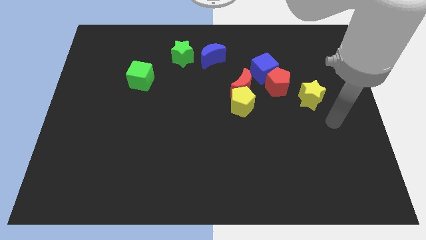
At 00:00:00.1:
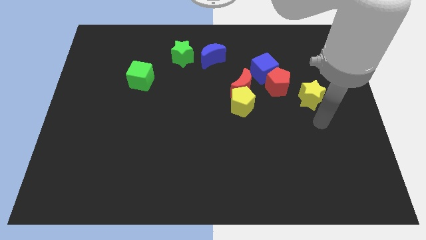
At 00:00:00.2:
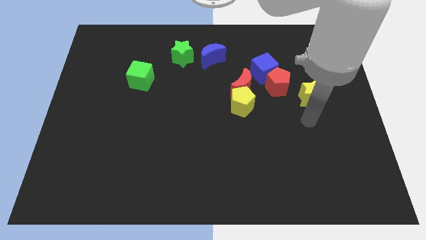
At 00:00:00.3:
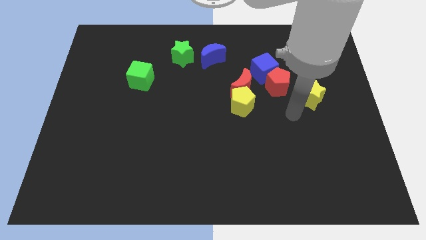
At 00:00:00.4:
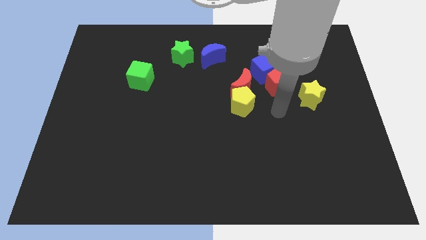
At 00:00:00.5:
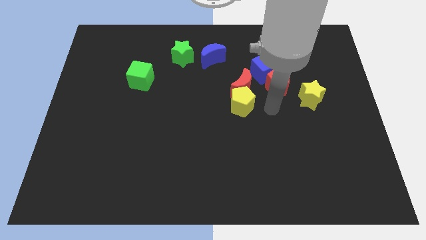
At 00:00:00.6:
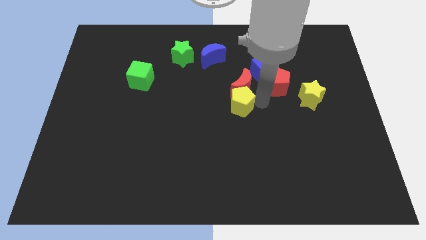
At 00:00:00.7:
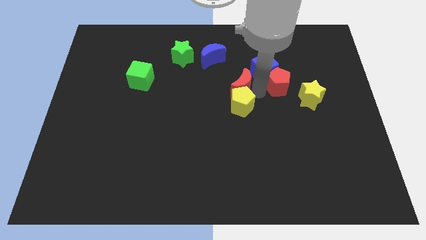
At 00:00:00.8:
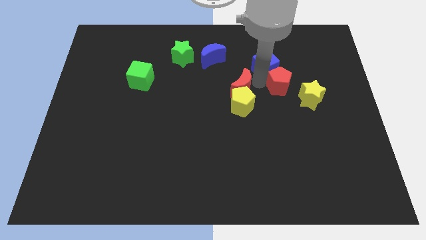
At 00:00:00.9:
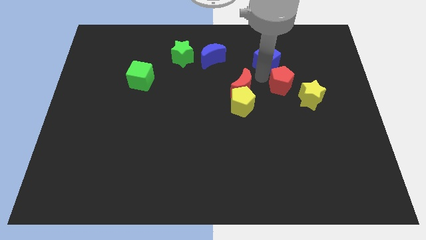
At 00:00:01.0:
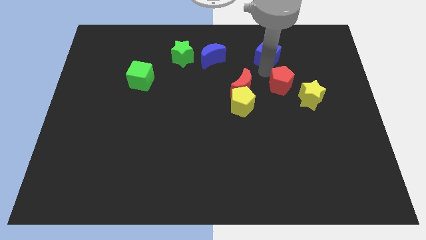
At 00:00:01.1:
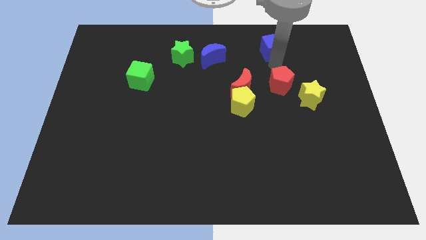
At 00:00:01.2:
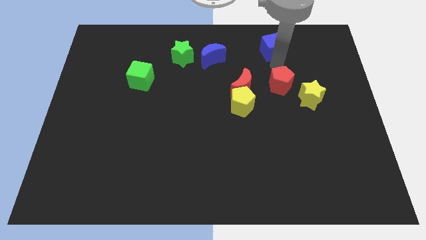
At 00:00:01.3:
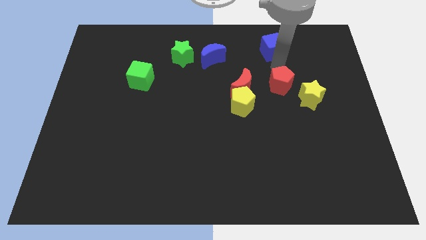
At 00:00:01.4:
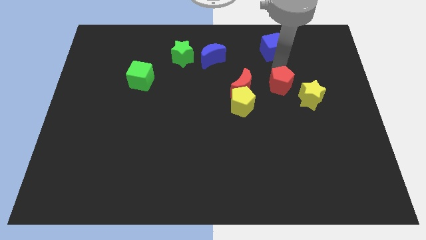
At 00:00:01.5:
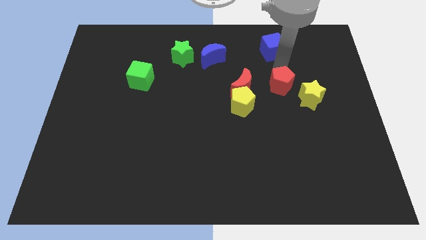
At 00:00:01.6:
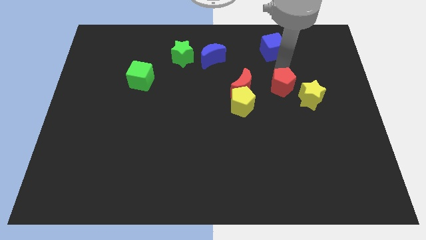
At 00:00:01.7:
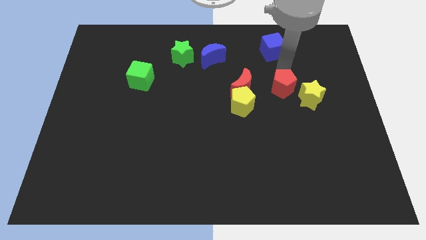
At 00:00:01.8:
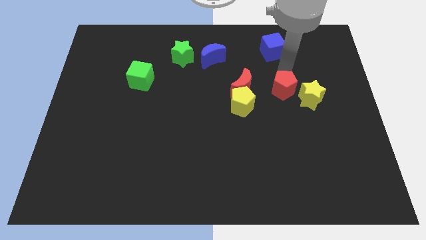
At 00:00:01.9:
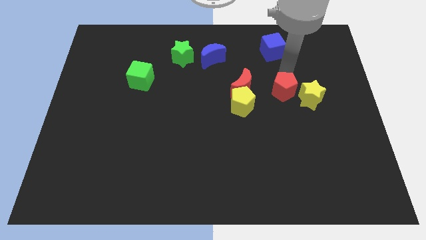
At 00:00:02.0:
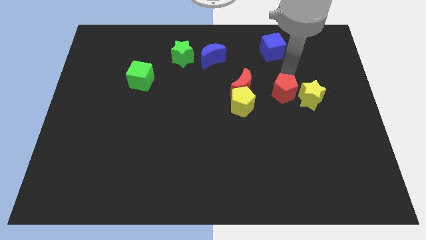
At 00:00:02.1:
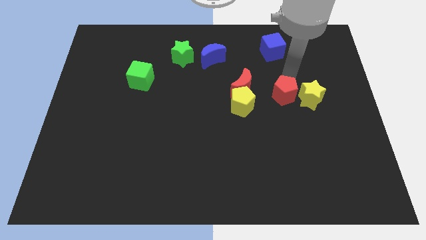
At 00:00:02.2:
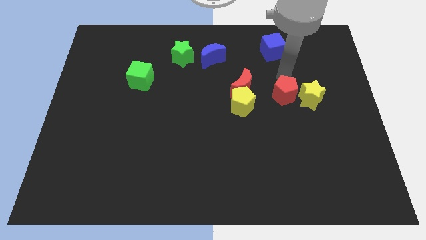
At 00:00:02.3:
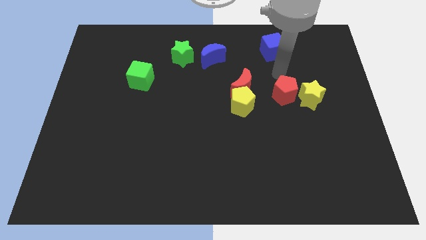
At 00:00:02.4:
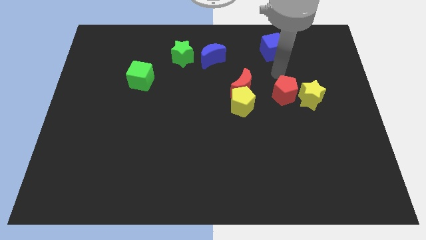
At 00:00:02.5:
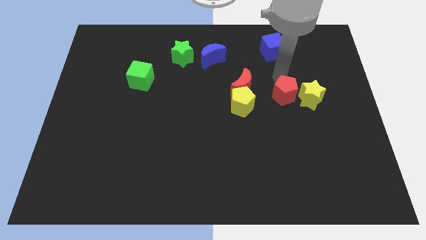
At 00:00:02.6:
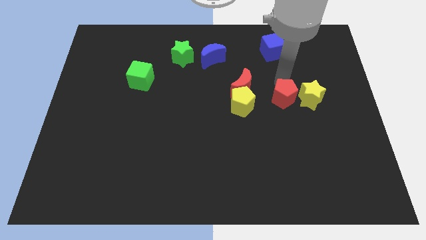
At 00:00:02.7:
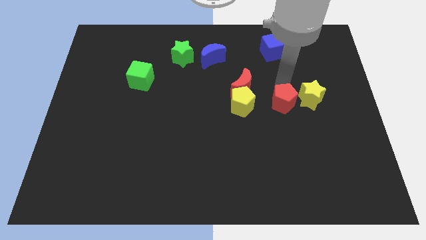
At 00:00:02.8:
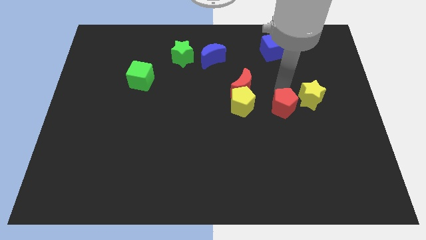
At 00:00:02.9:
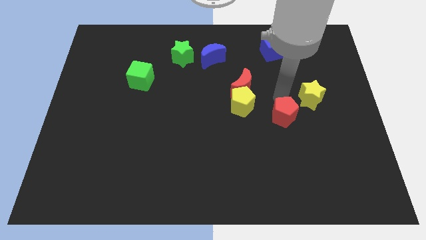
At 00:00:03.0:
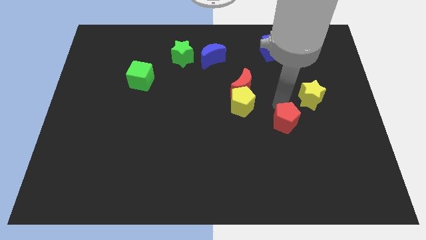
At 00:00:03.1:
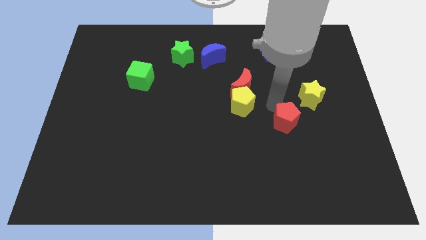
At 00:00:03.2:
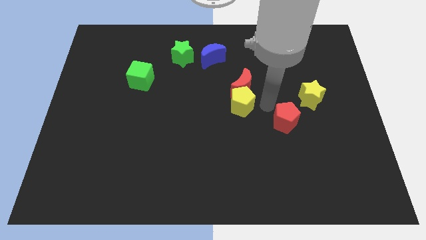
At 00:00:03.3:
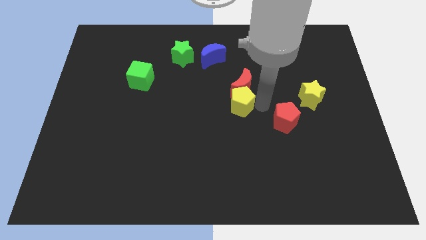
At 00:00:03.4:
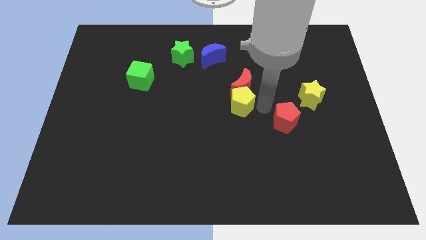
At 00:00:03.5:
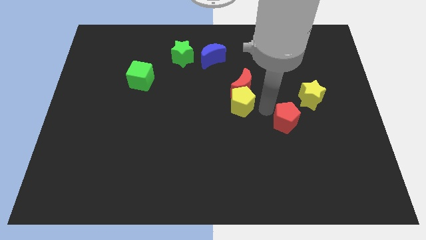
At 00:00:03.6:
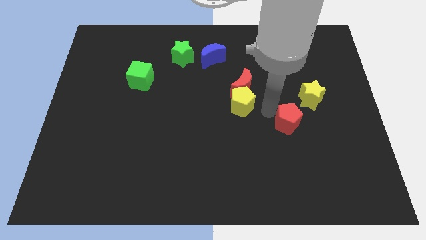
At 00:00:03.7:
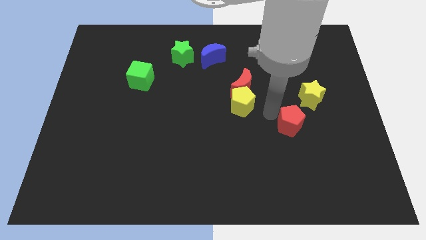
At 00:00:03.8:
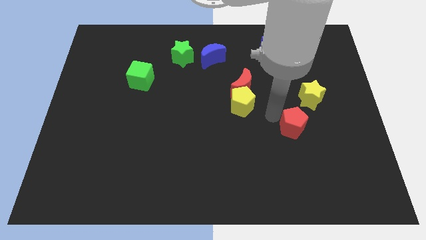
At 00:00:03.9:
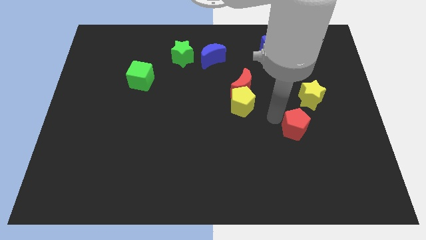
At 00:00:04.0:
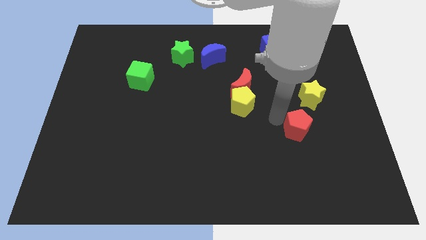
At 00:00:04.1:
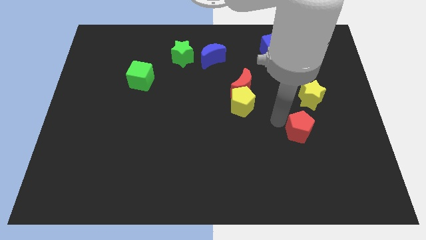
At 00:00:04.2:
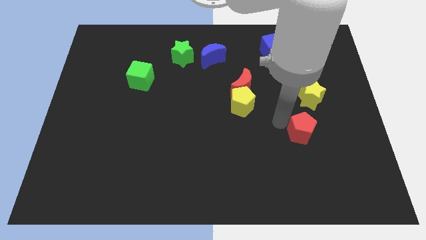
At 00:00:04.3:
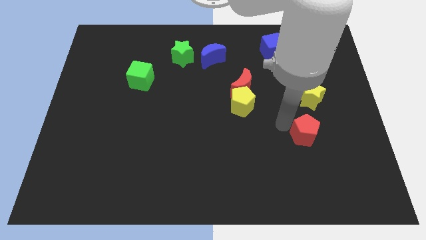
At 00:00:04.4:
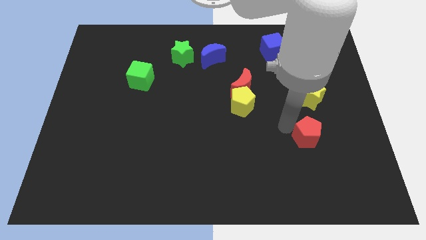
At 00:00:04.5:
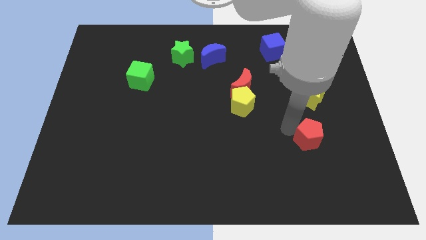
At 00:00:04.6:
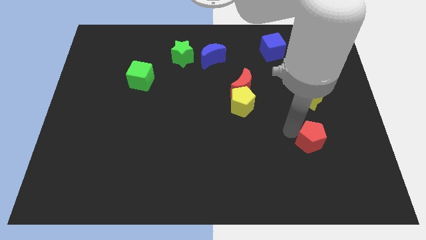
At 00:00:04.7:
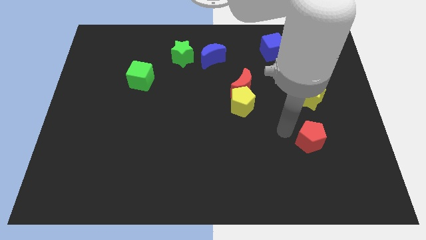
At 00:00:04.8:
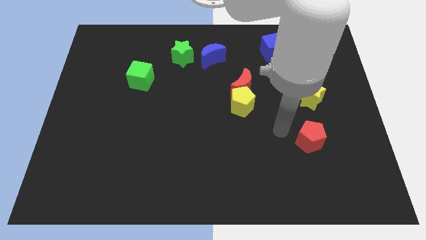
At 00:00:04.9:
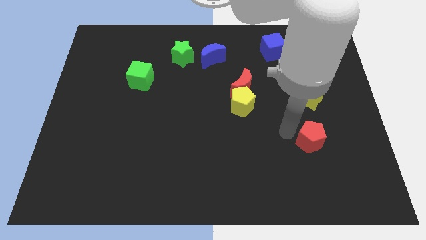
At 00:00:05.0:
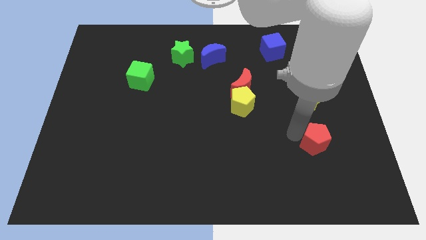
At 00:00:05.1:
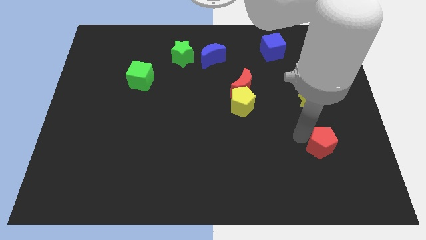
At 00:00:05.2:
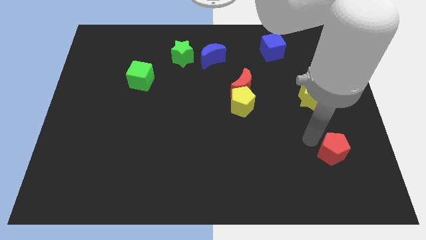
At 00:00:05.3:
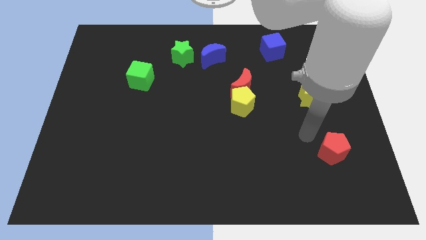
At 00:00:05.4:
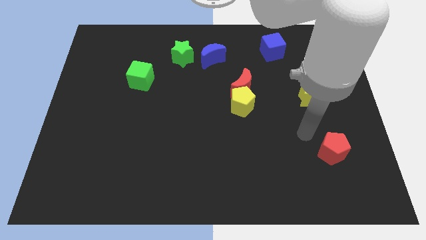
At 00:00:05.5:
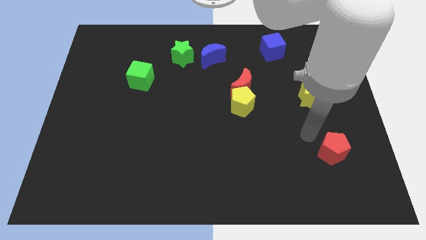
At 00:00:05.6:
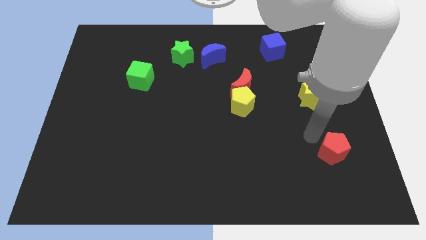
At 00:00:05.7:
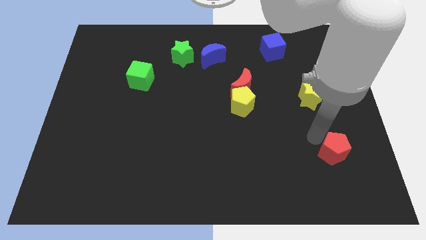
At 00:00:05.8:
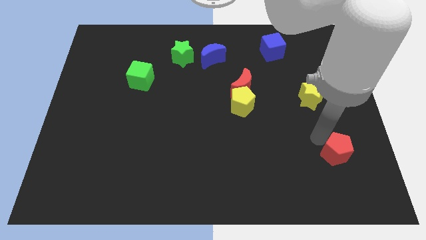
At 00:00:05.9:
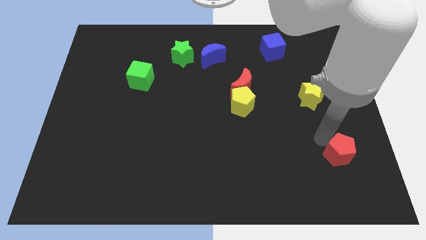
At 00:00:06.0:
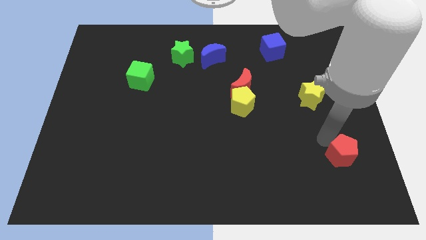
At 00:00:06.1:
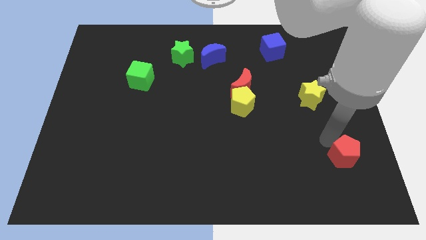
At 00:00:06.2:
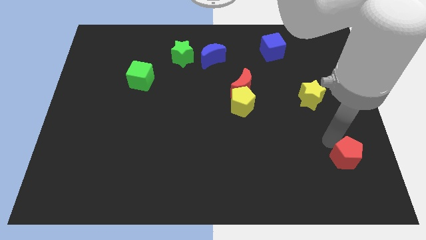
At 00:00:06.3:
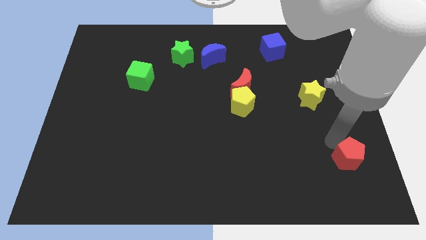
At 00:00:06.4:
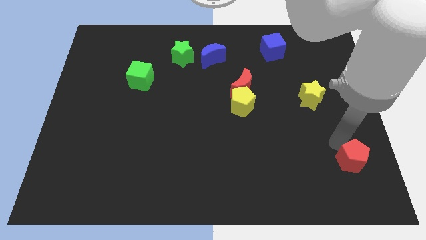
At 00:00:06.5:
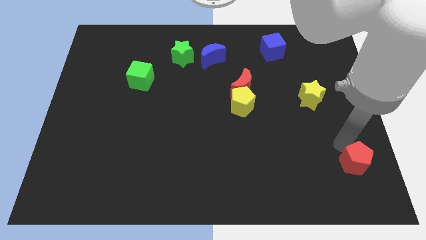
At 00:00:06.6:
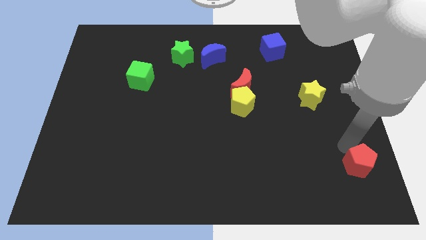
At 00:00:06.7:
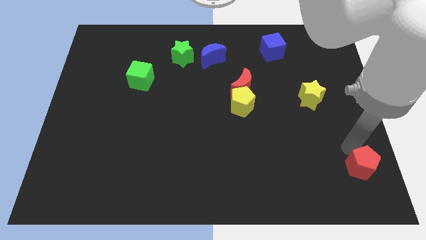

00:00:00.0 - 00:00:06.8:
put the red pentagon to the bottom right
